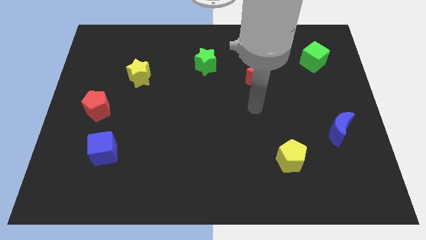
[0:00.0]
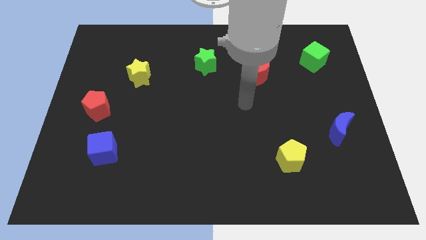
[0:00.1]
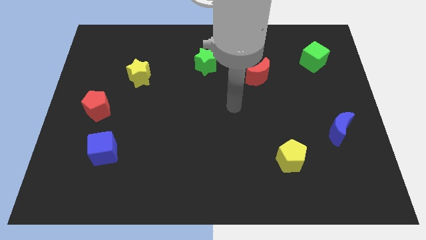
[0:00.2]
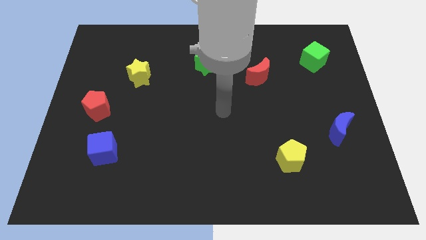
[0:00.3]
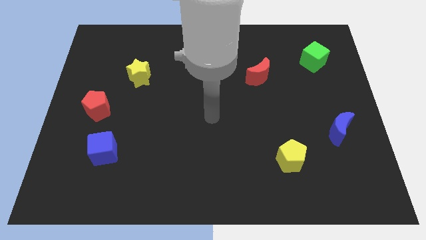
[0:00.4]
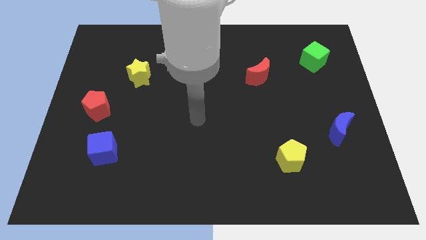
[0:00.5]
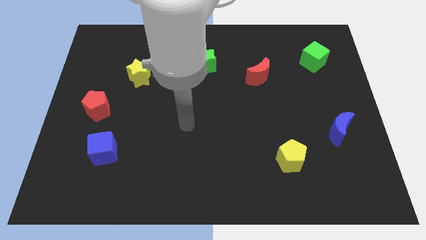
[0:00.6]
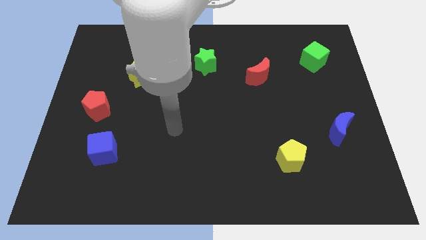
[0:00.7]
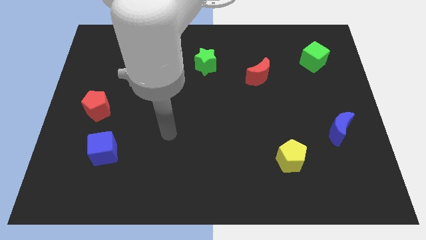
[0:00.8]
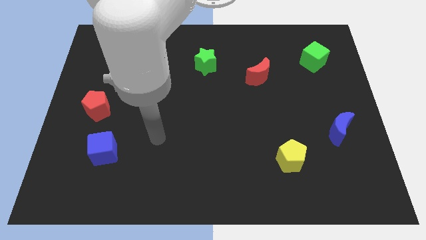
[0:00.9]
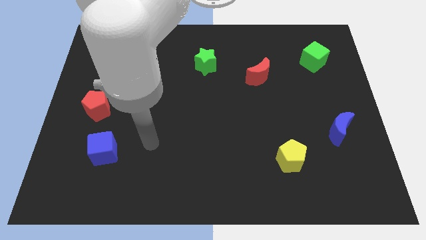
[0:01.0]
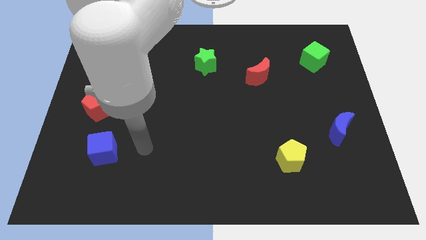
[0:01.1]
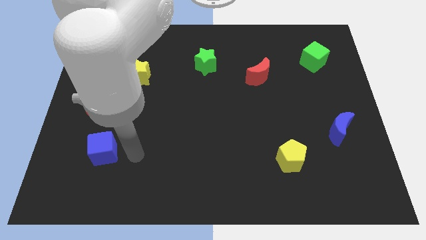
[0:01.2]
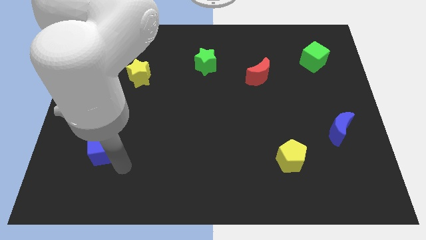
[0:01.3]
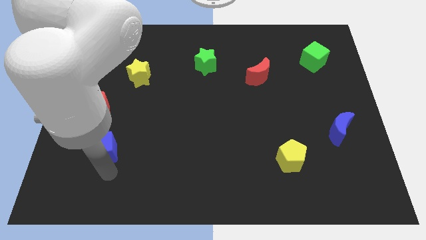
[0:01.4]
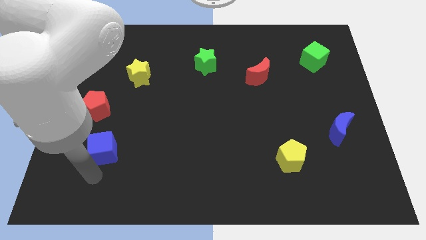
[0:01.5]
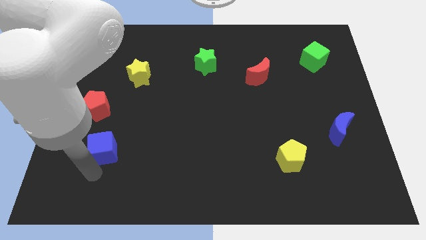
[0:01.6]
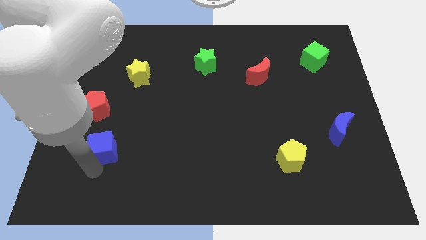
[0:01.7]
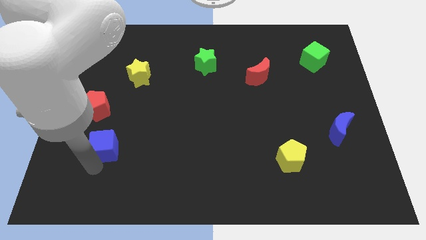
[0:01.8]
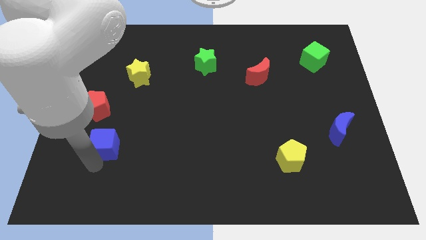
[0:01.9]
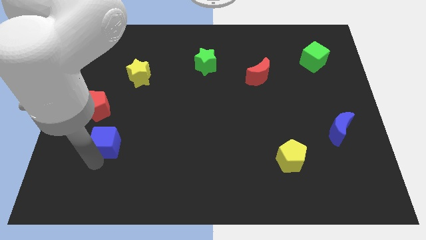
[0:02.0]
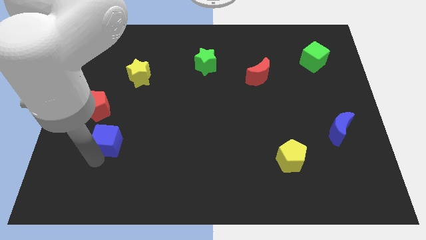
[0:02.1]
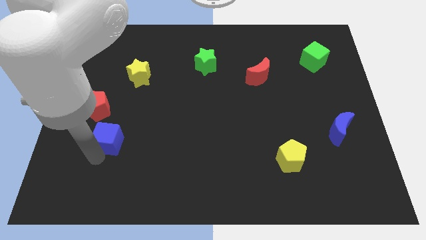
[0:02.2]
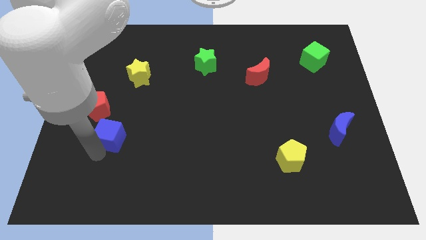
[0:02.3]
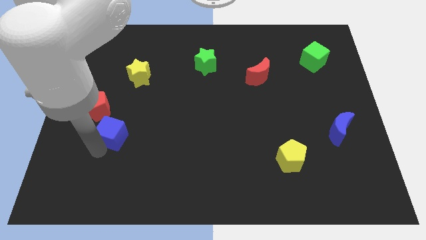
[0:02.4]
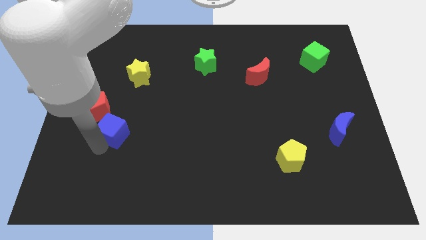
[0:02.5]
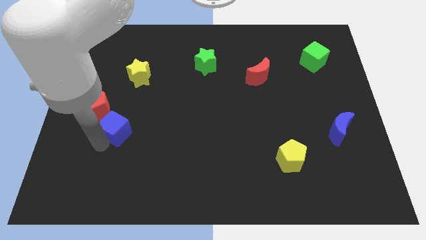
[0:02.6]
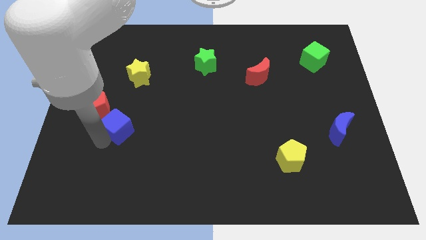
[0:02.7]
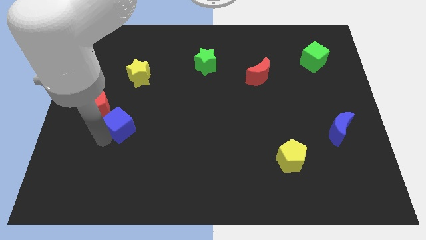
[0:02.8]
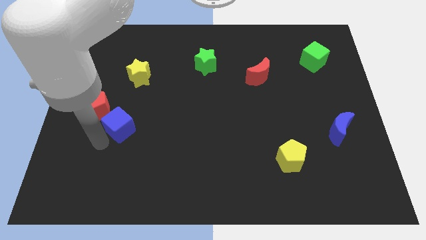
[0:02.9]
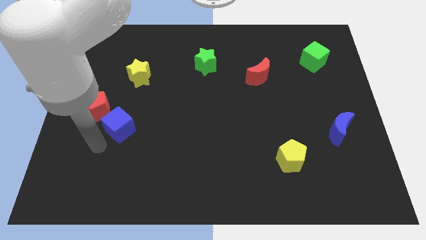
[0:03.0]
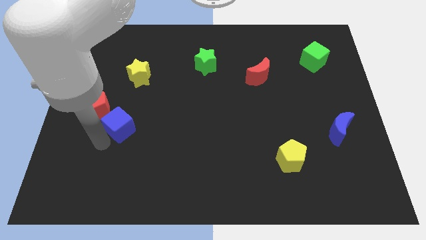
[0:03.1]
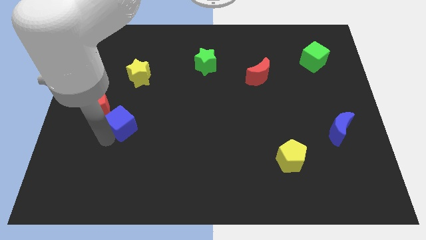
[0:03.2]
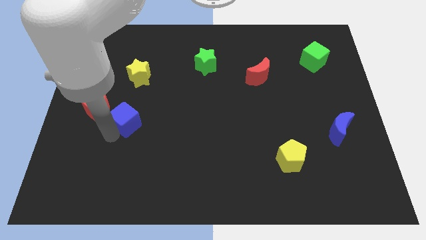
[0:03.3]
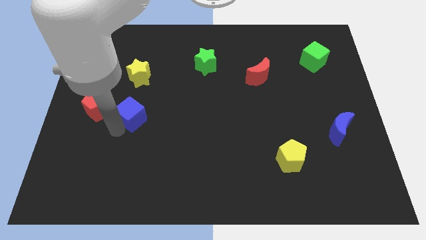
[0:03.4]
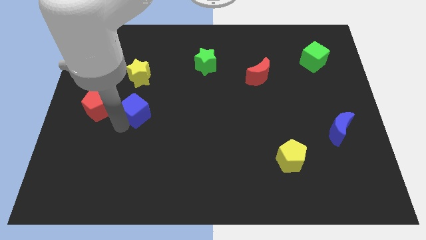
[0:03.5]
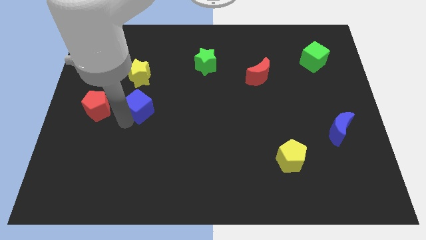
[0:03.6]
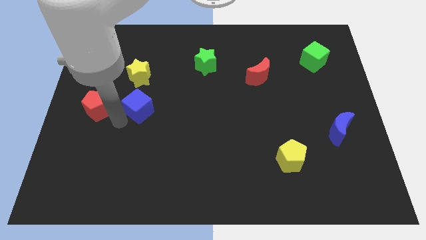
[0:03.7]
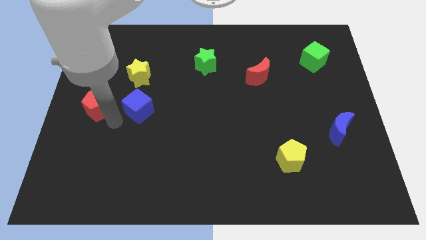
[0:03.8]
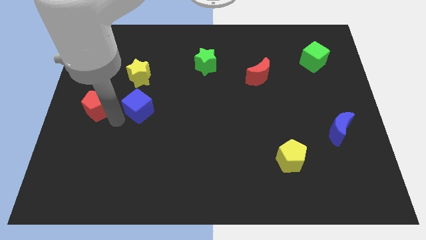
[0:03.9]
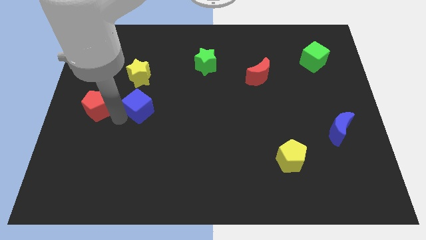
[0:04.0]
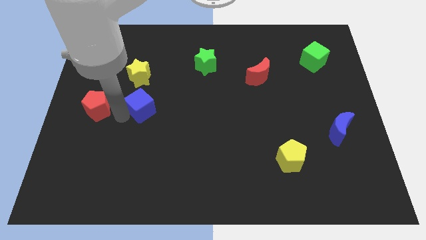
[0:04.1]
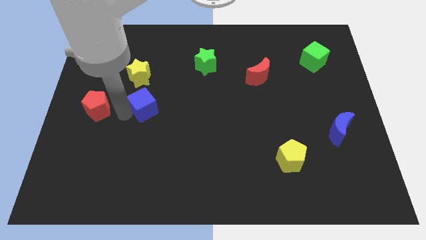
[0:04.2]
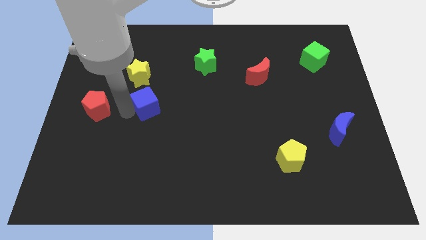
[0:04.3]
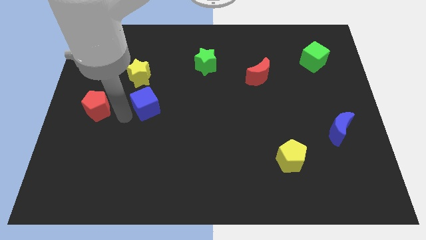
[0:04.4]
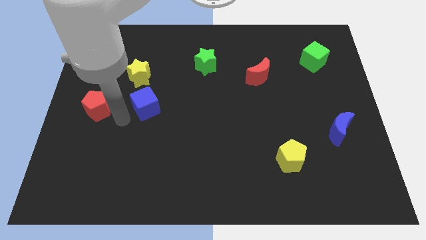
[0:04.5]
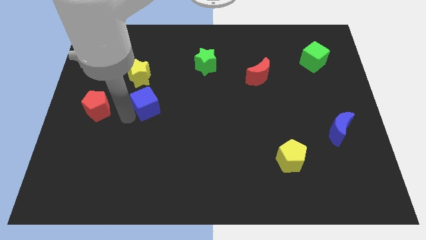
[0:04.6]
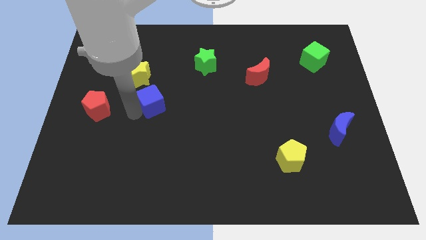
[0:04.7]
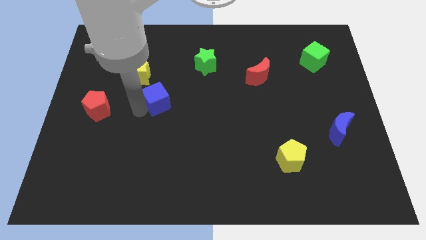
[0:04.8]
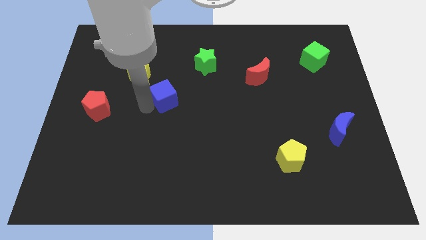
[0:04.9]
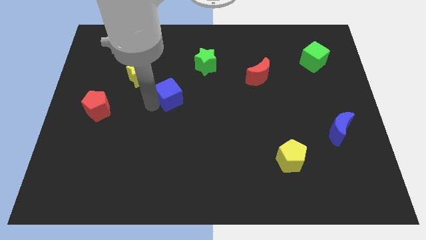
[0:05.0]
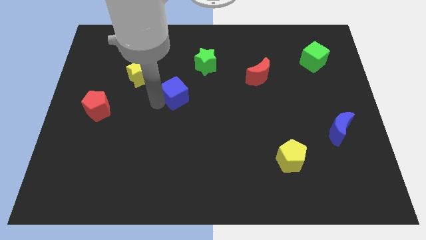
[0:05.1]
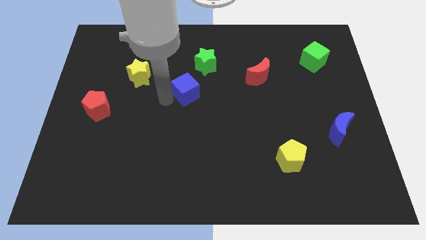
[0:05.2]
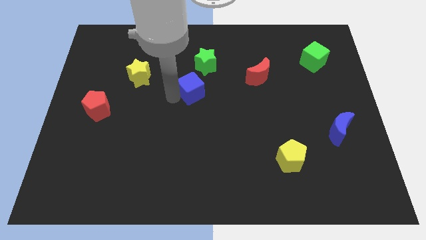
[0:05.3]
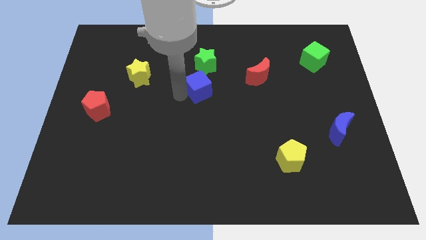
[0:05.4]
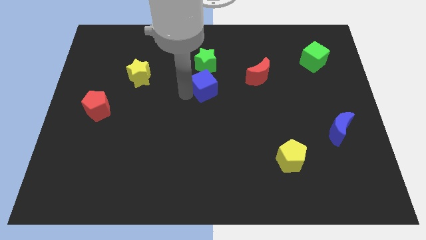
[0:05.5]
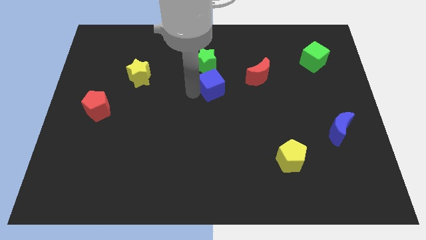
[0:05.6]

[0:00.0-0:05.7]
move the blue cube to the bottom right of the green star

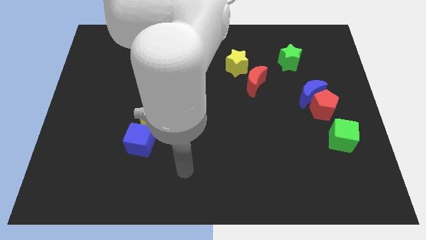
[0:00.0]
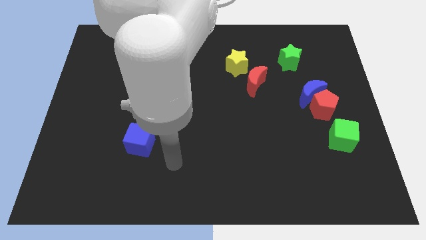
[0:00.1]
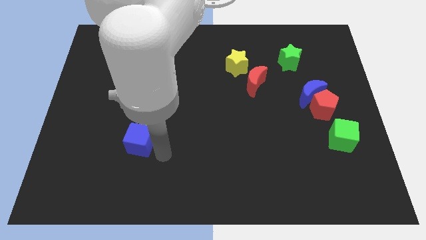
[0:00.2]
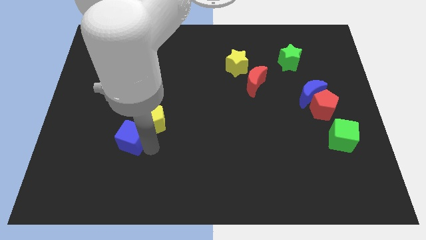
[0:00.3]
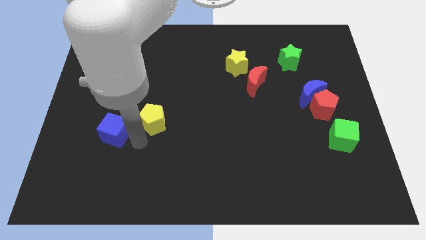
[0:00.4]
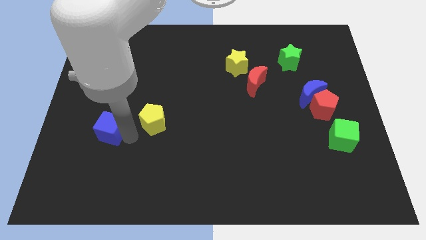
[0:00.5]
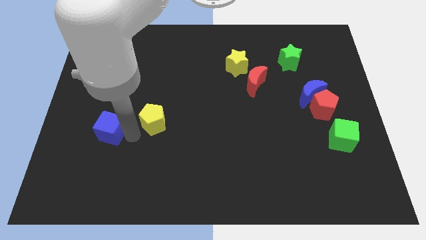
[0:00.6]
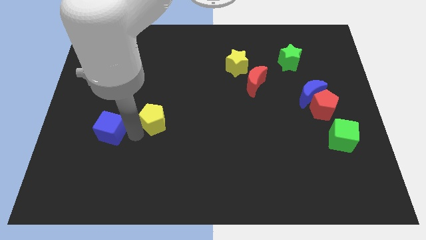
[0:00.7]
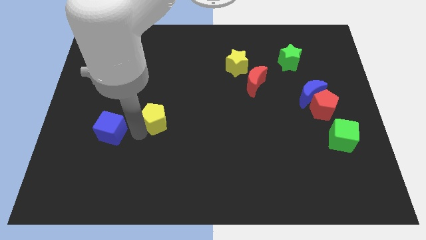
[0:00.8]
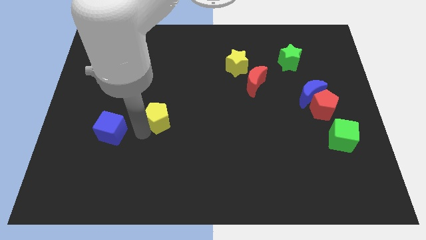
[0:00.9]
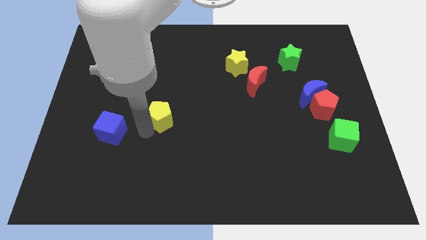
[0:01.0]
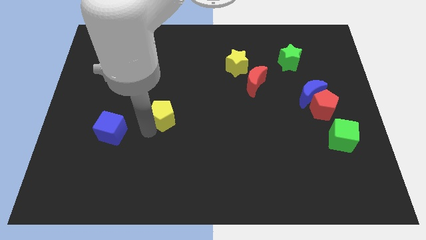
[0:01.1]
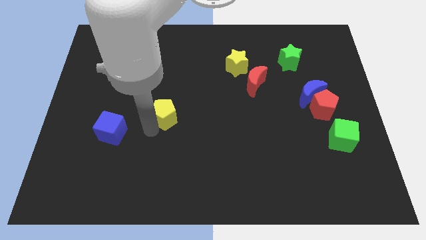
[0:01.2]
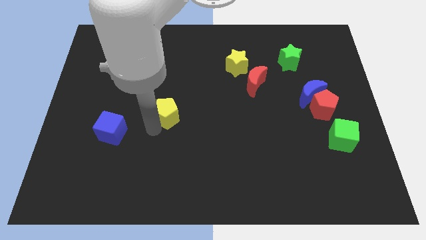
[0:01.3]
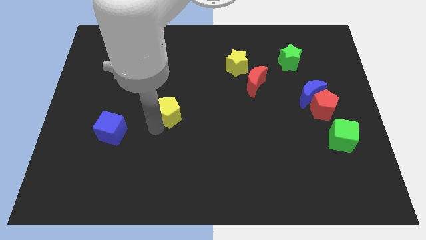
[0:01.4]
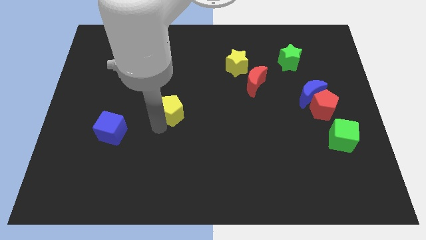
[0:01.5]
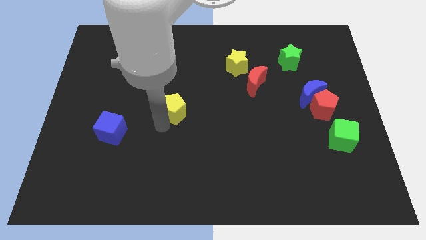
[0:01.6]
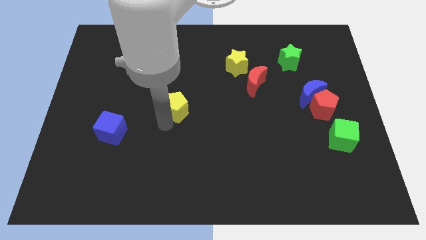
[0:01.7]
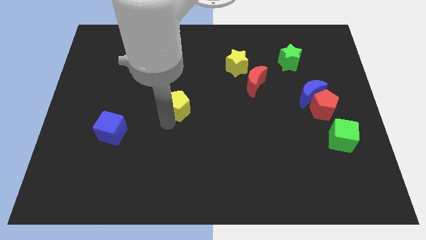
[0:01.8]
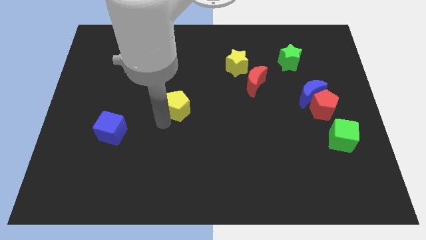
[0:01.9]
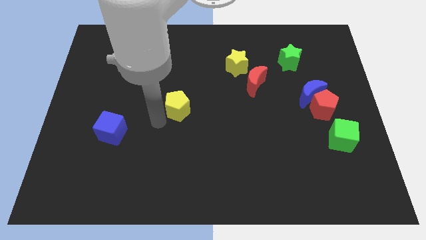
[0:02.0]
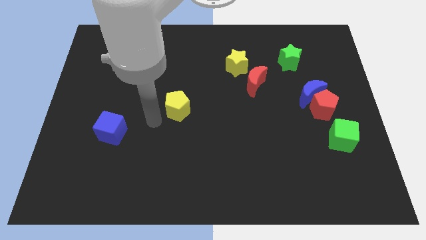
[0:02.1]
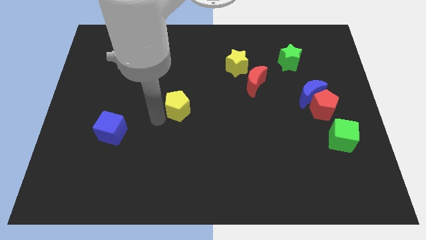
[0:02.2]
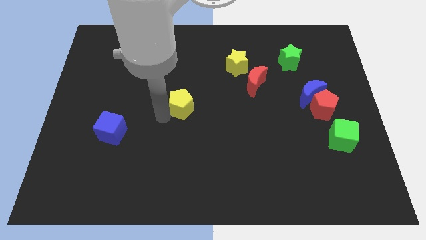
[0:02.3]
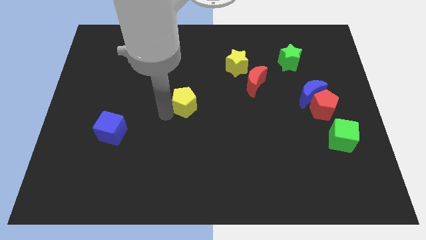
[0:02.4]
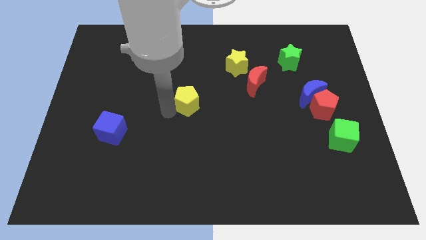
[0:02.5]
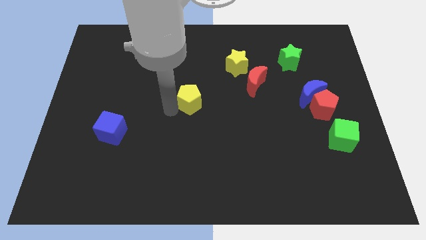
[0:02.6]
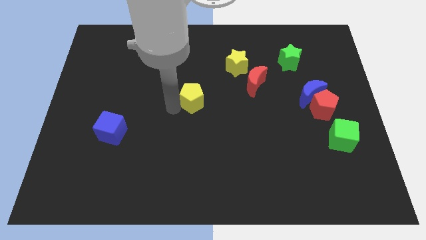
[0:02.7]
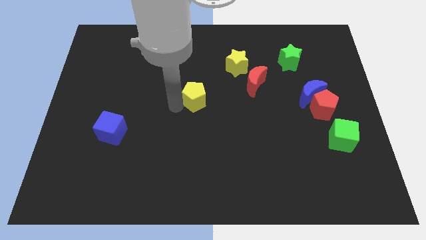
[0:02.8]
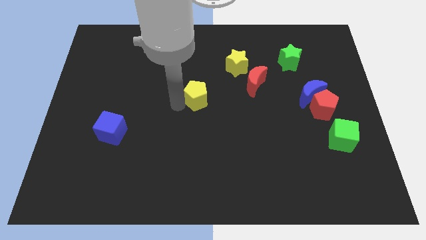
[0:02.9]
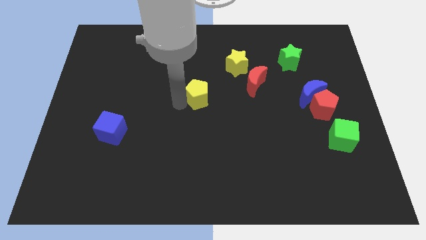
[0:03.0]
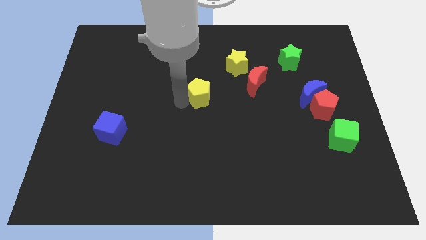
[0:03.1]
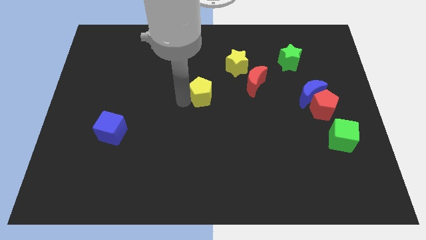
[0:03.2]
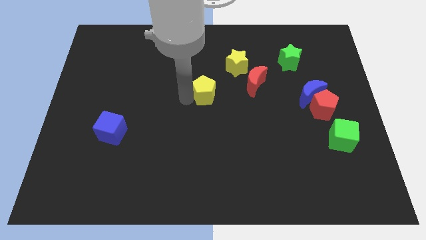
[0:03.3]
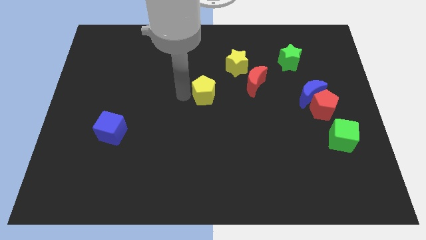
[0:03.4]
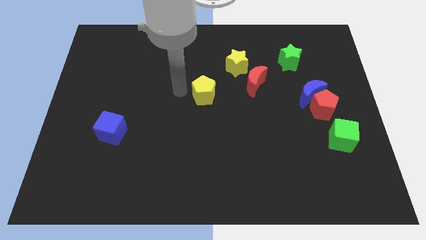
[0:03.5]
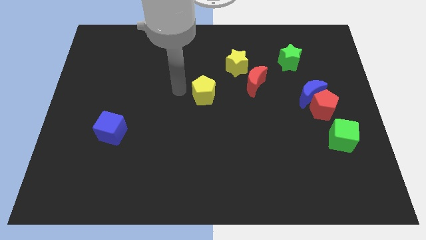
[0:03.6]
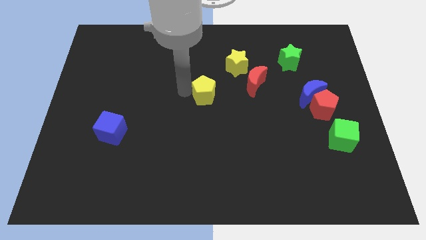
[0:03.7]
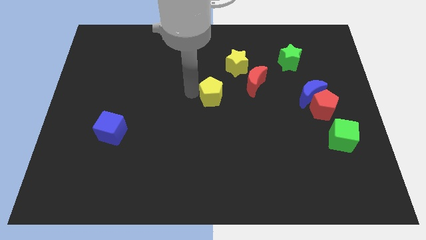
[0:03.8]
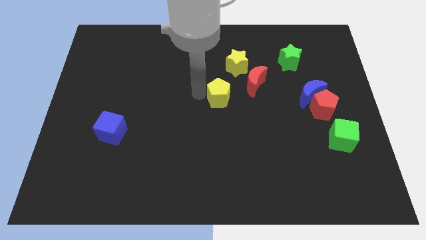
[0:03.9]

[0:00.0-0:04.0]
put the yellow pentagon diagonally down and to the left of the red moon
